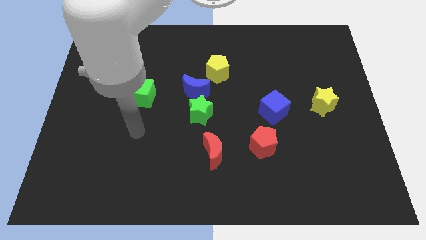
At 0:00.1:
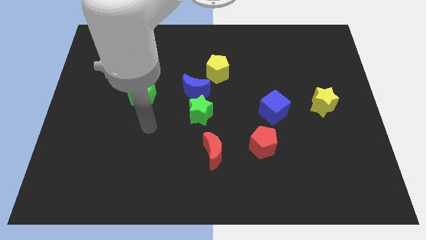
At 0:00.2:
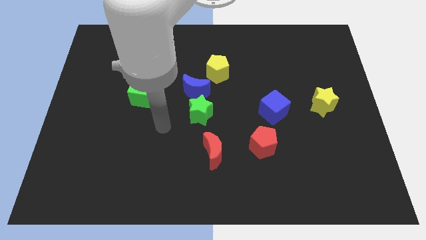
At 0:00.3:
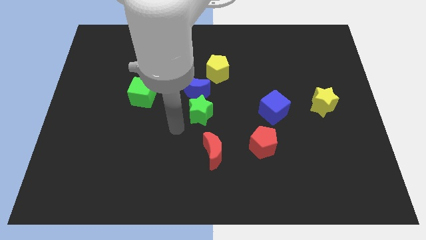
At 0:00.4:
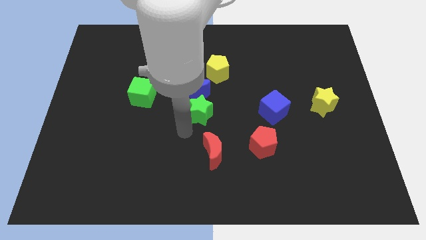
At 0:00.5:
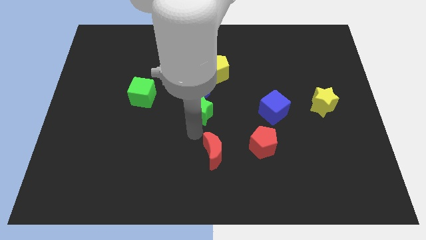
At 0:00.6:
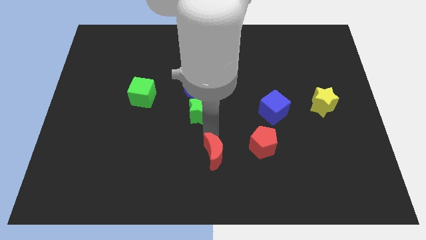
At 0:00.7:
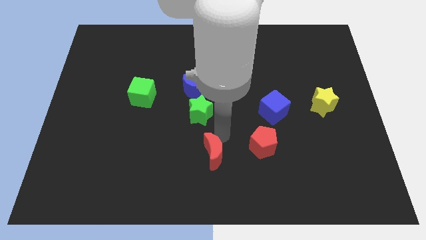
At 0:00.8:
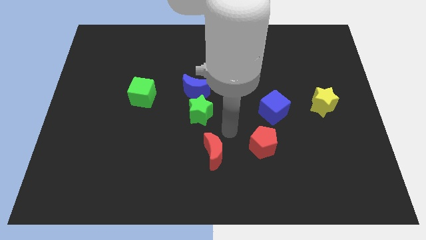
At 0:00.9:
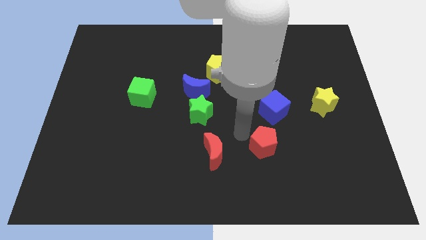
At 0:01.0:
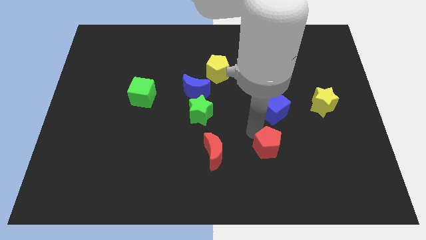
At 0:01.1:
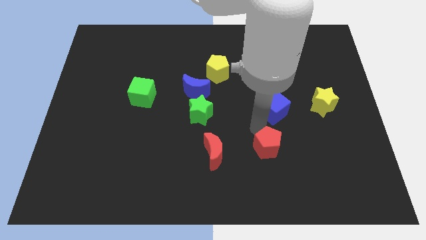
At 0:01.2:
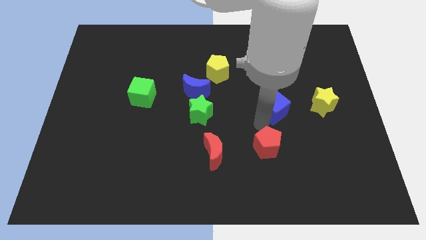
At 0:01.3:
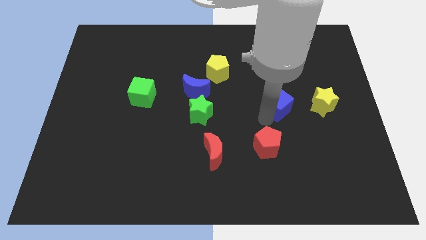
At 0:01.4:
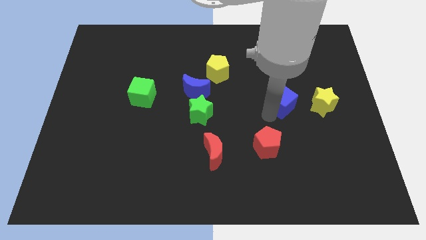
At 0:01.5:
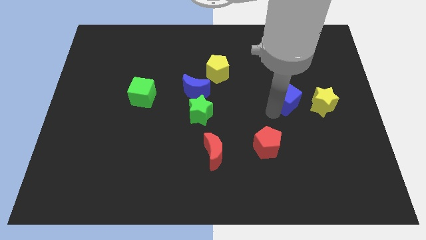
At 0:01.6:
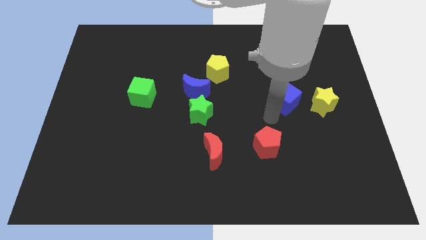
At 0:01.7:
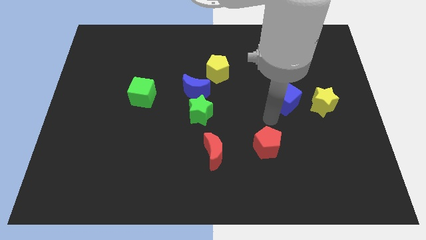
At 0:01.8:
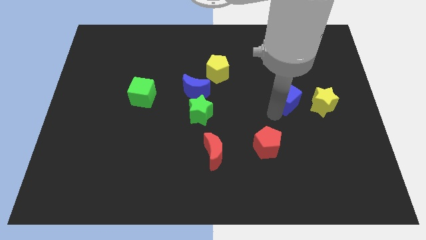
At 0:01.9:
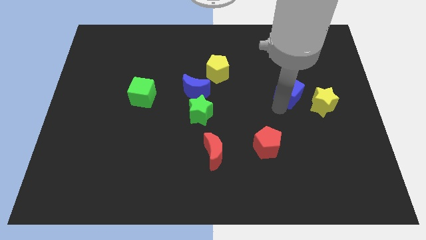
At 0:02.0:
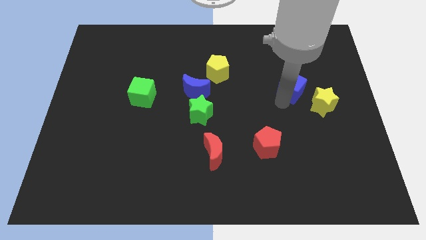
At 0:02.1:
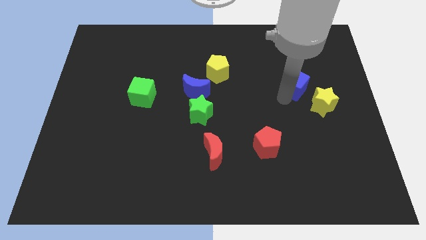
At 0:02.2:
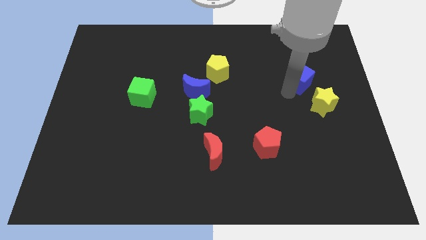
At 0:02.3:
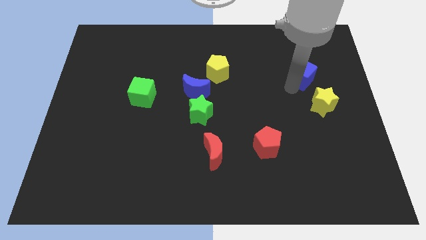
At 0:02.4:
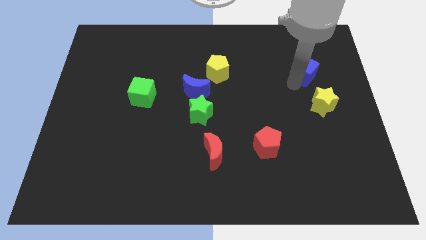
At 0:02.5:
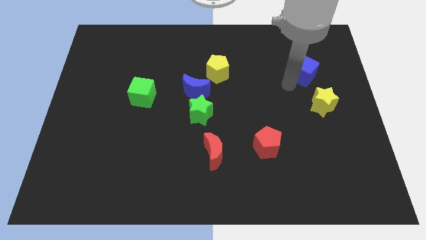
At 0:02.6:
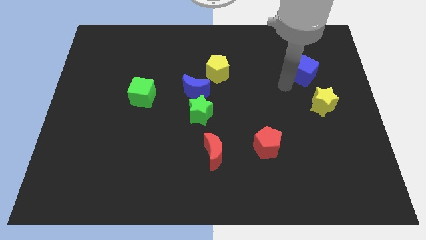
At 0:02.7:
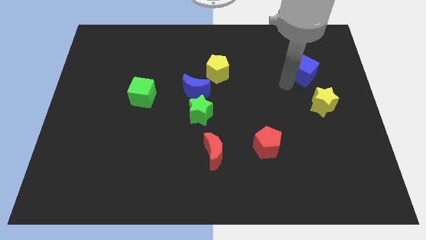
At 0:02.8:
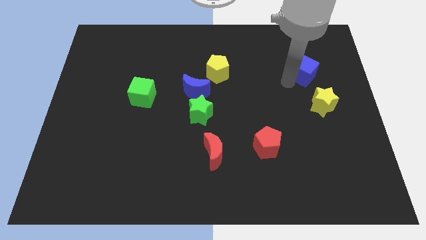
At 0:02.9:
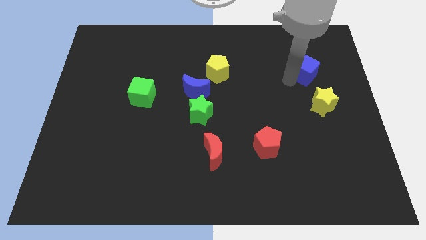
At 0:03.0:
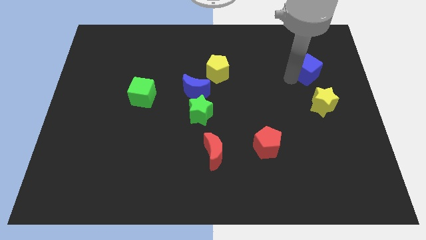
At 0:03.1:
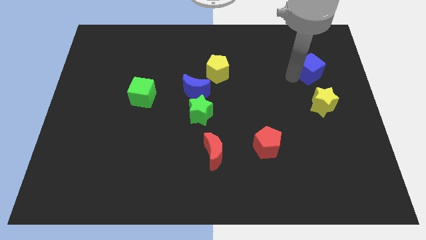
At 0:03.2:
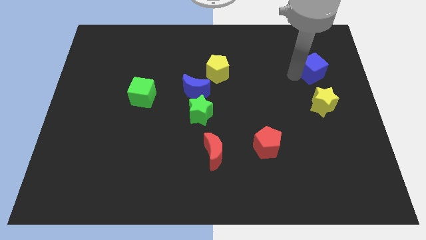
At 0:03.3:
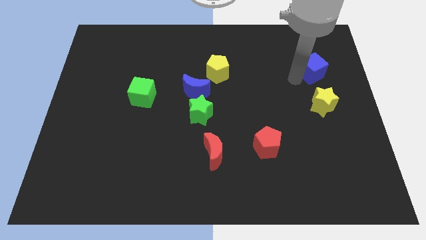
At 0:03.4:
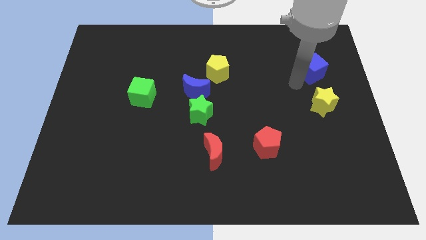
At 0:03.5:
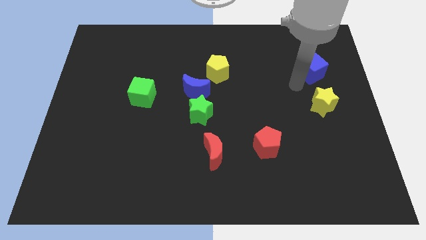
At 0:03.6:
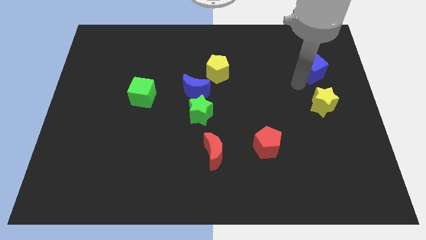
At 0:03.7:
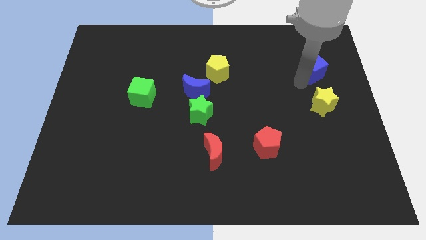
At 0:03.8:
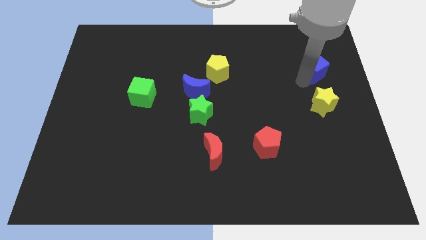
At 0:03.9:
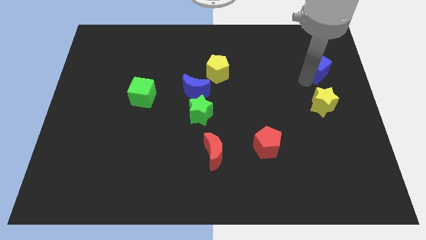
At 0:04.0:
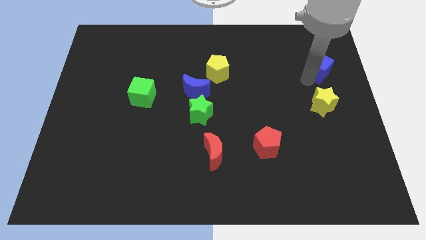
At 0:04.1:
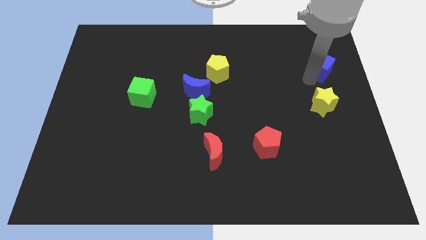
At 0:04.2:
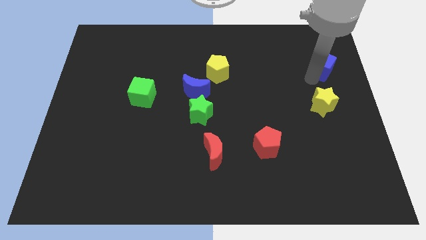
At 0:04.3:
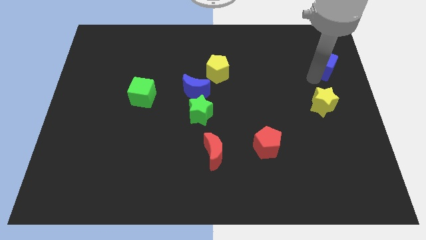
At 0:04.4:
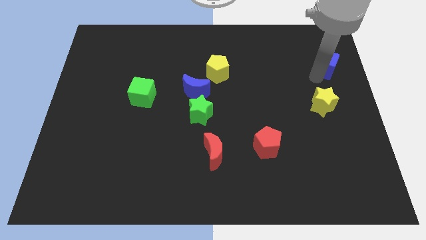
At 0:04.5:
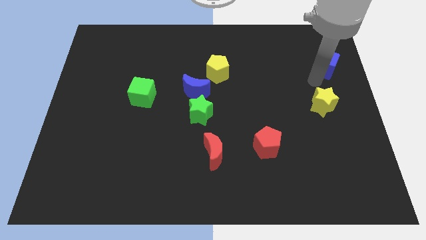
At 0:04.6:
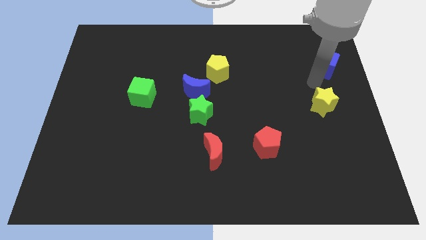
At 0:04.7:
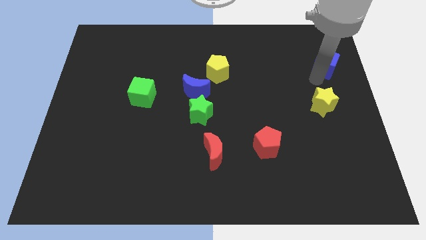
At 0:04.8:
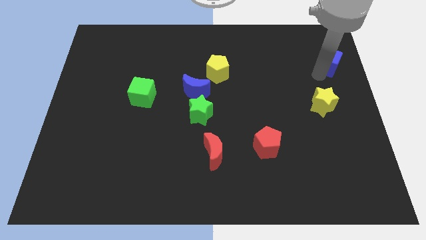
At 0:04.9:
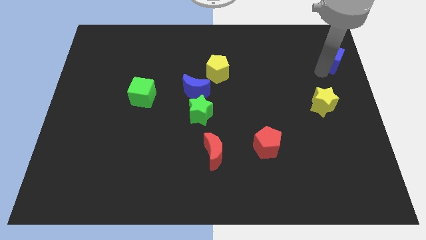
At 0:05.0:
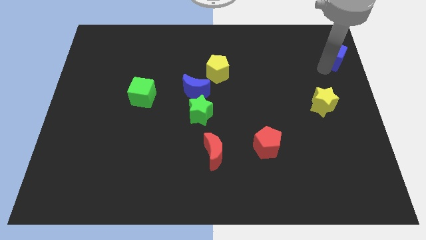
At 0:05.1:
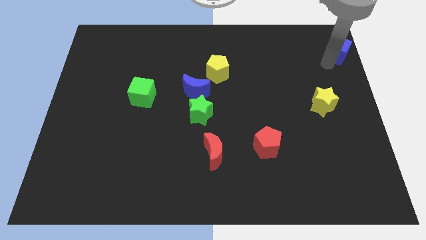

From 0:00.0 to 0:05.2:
move the blue cube to the top right

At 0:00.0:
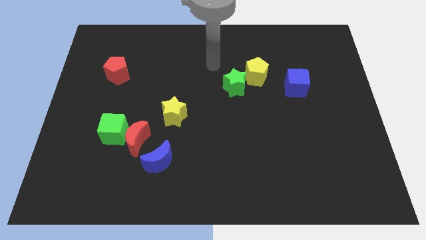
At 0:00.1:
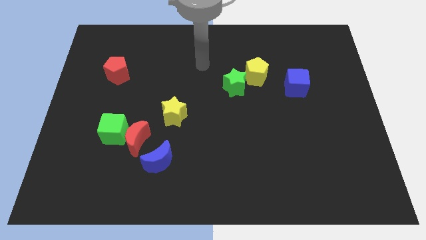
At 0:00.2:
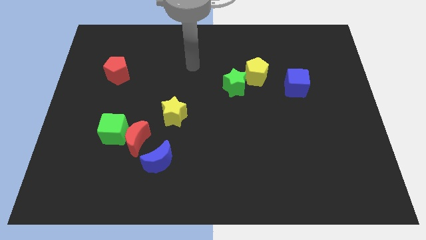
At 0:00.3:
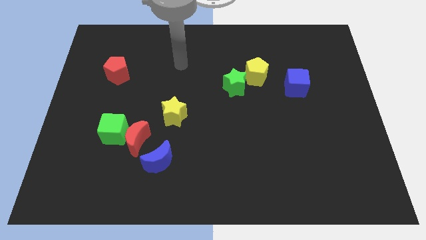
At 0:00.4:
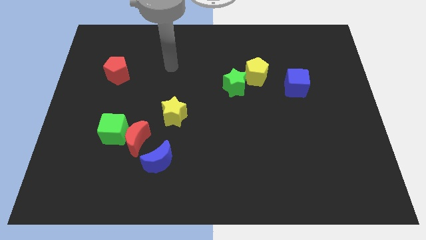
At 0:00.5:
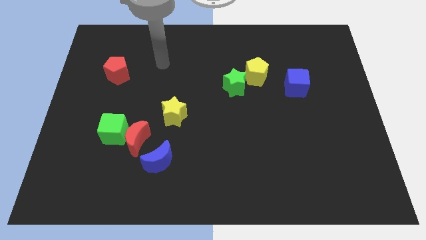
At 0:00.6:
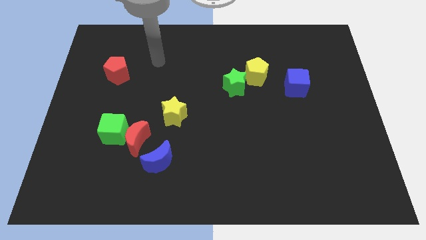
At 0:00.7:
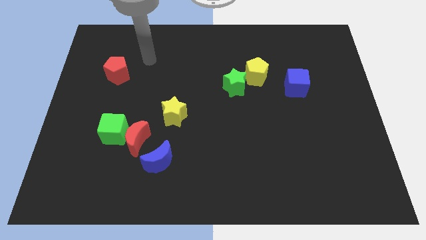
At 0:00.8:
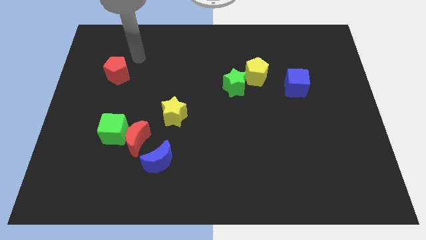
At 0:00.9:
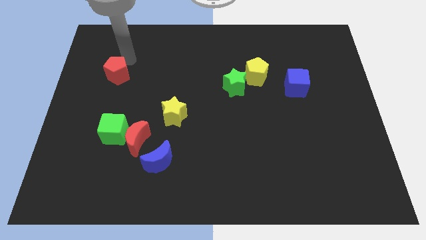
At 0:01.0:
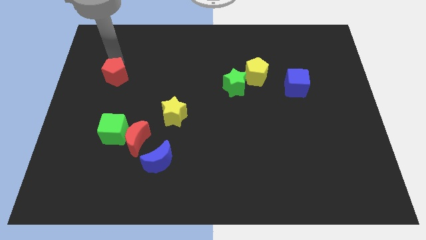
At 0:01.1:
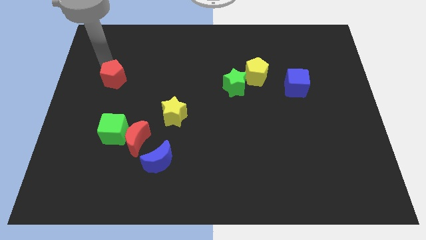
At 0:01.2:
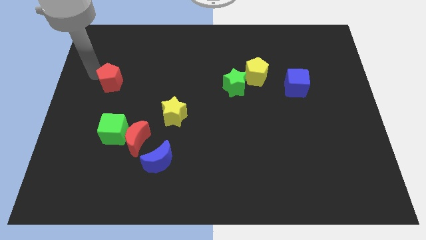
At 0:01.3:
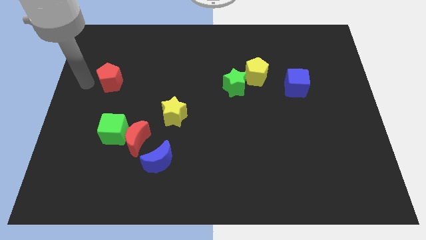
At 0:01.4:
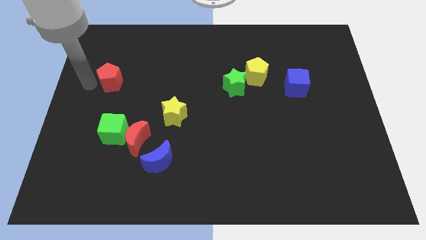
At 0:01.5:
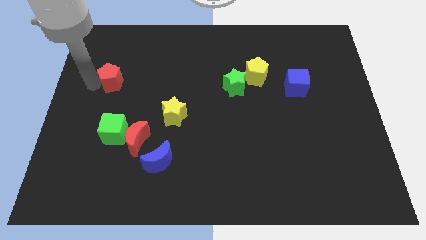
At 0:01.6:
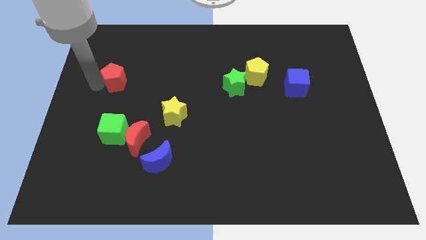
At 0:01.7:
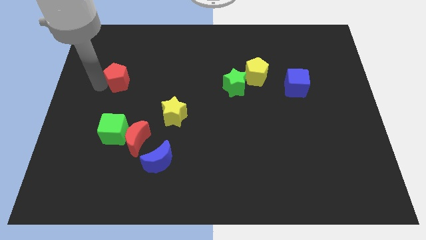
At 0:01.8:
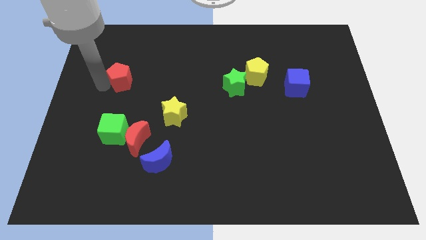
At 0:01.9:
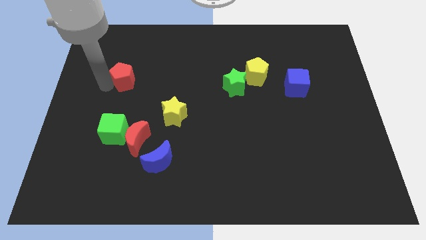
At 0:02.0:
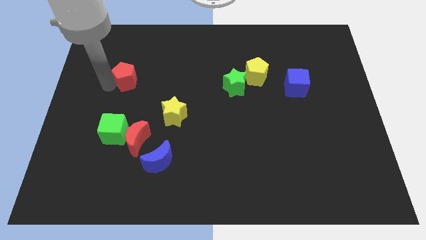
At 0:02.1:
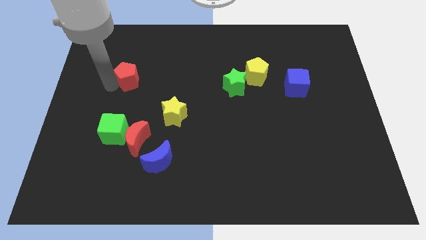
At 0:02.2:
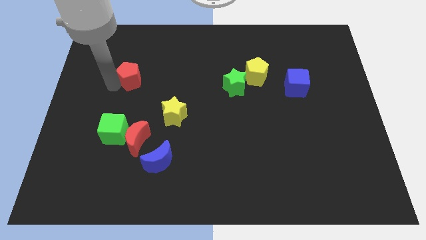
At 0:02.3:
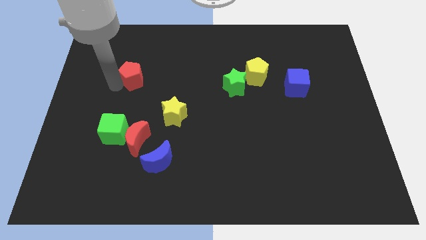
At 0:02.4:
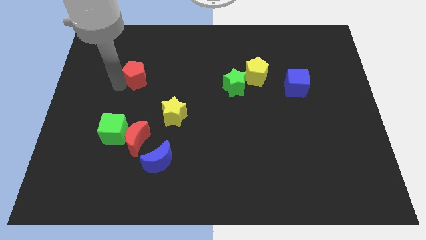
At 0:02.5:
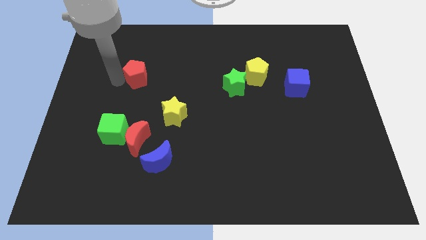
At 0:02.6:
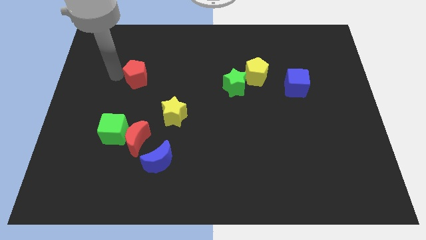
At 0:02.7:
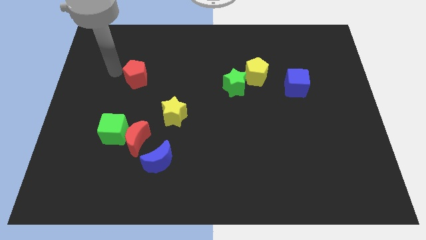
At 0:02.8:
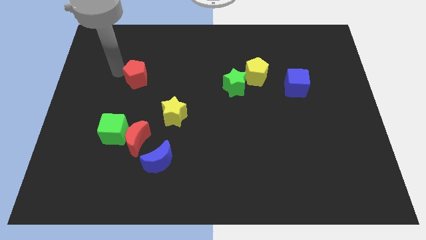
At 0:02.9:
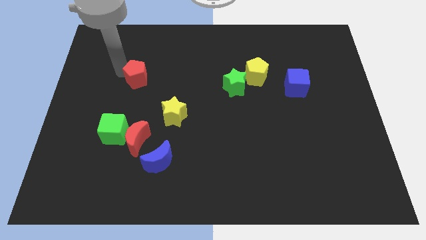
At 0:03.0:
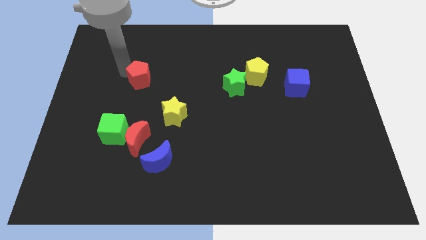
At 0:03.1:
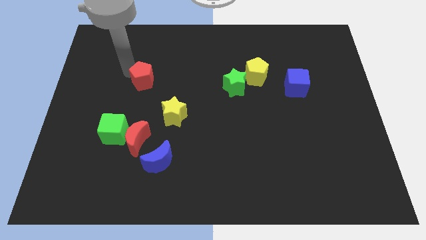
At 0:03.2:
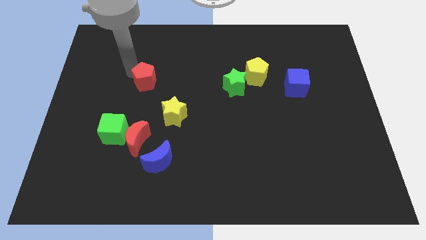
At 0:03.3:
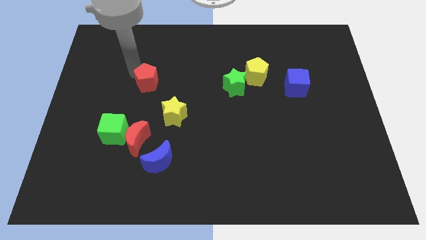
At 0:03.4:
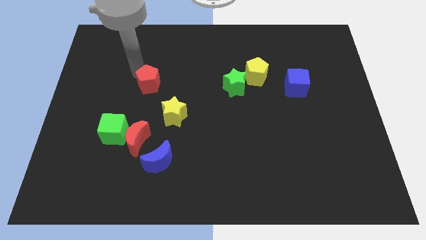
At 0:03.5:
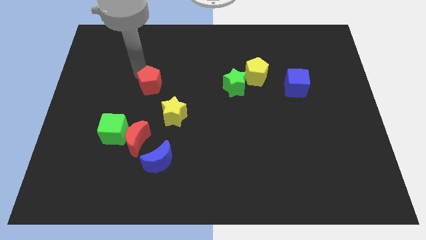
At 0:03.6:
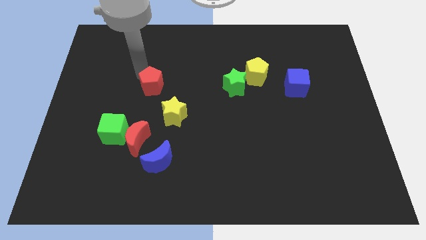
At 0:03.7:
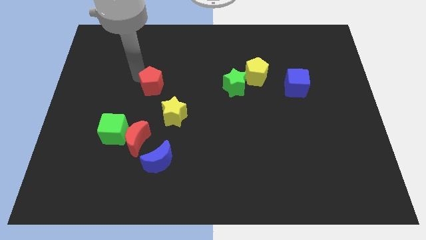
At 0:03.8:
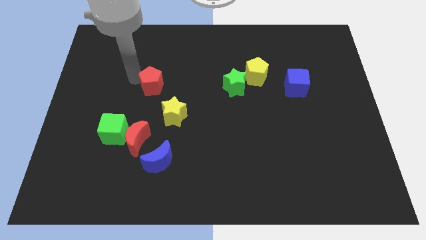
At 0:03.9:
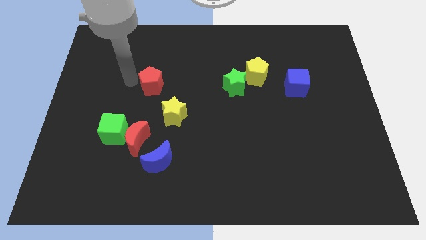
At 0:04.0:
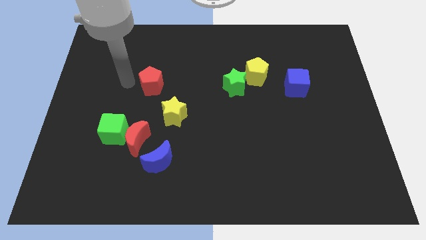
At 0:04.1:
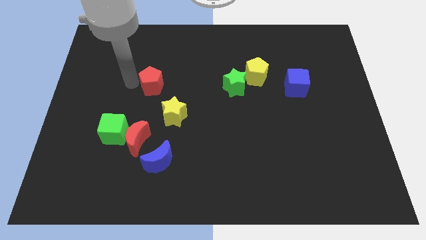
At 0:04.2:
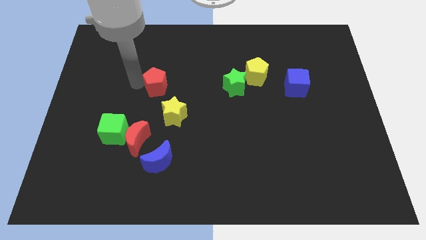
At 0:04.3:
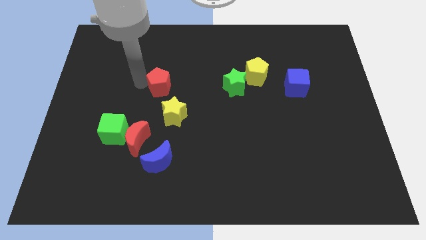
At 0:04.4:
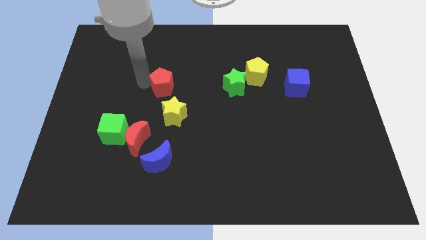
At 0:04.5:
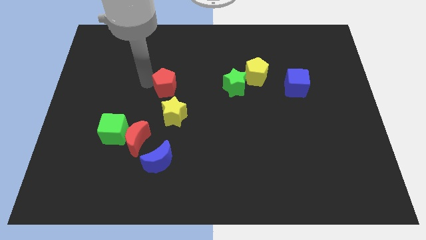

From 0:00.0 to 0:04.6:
slide the red pentagon to the middle of the board
